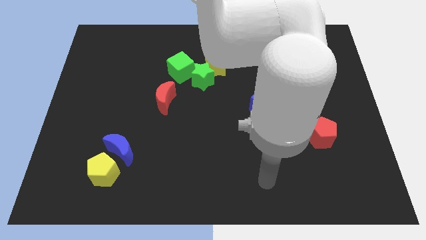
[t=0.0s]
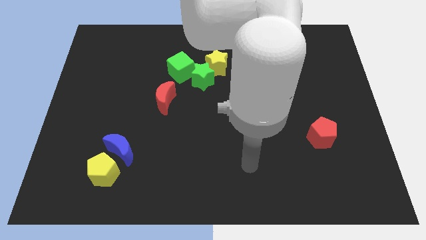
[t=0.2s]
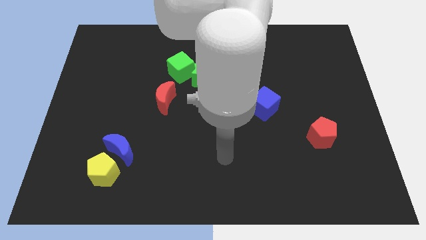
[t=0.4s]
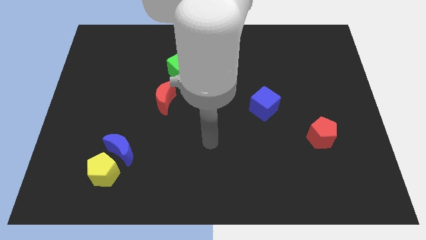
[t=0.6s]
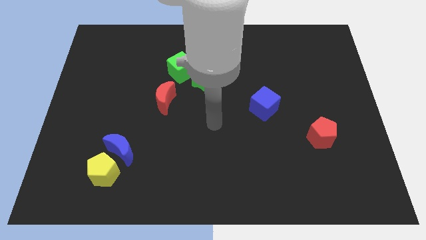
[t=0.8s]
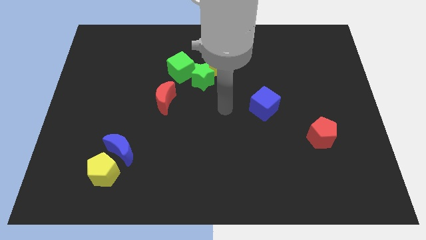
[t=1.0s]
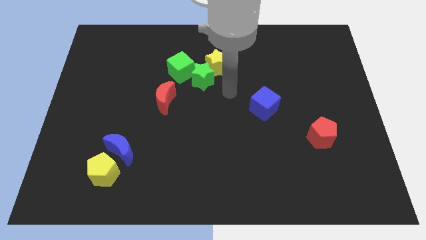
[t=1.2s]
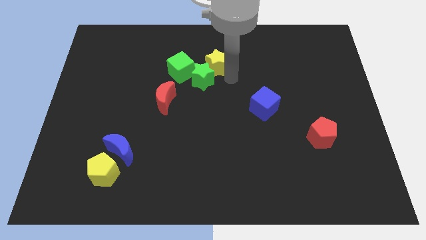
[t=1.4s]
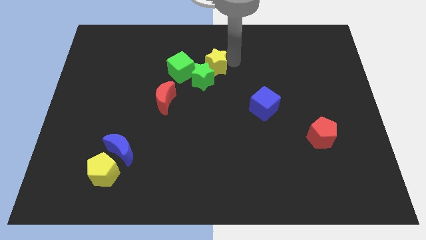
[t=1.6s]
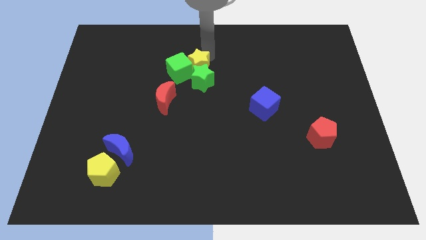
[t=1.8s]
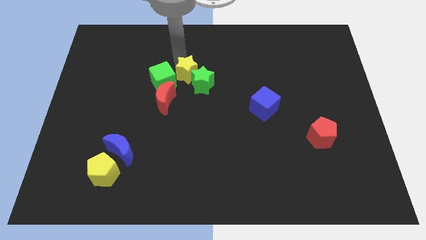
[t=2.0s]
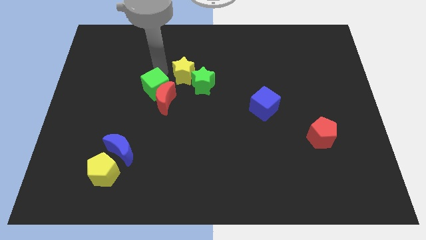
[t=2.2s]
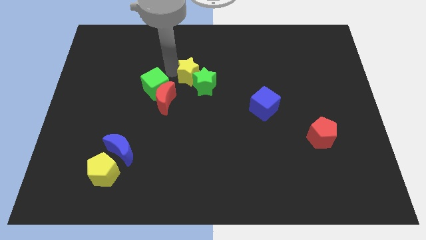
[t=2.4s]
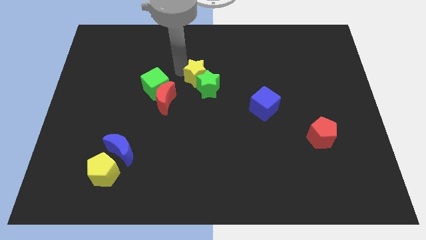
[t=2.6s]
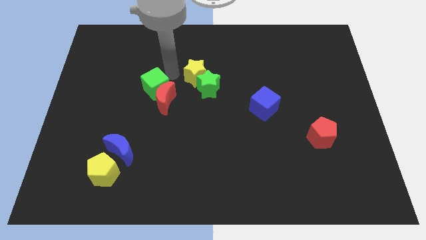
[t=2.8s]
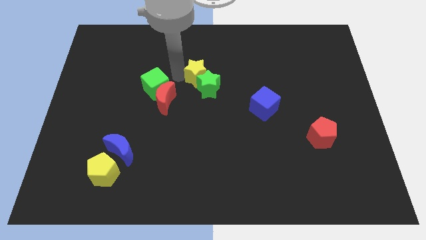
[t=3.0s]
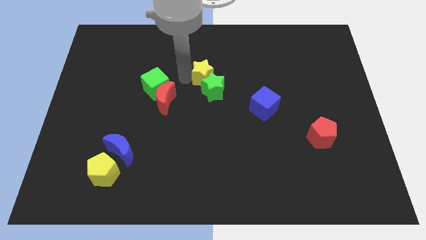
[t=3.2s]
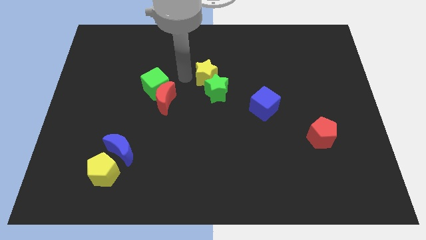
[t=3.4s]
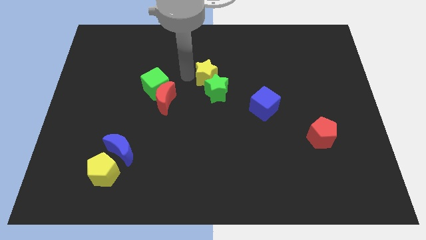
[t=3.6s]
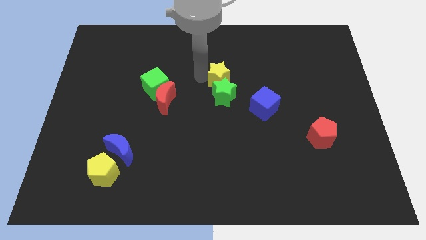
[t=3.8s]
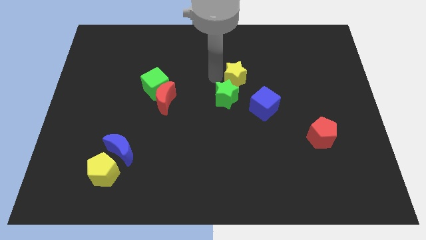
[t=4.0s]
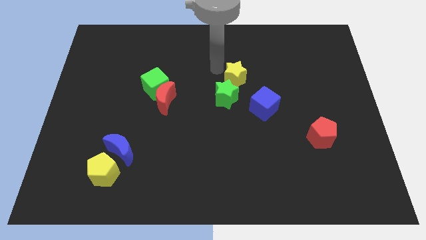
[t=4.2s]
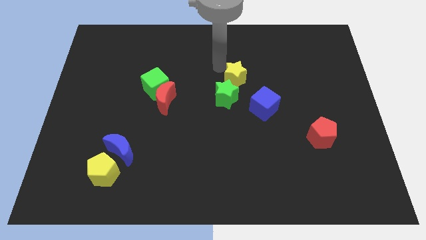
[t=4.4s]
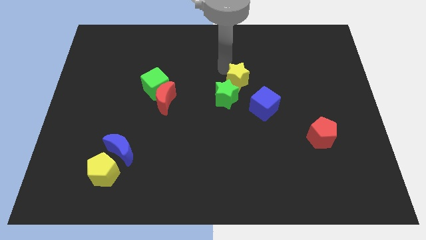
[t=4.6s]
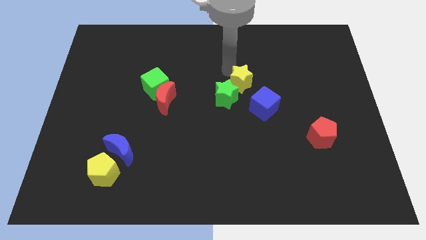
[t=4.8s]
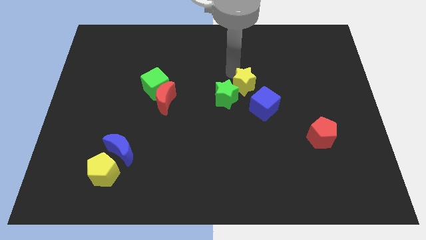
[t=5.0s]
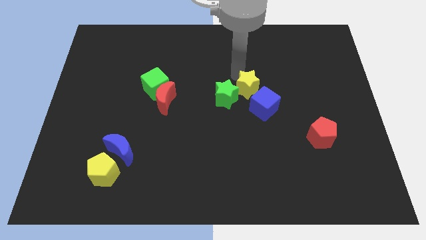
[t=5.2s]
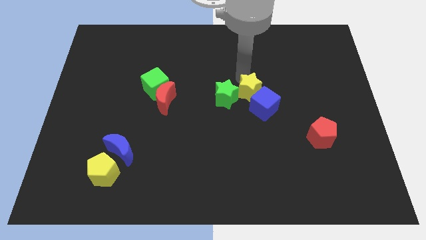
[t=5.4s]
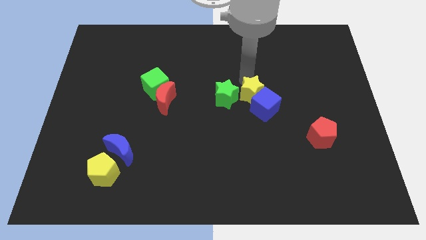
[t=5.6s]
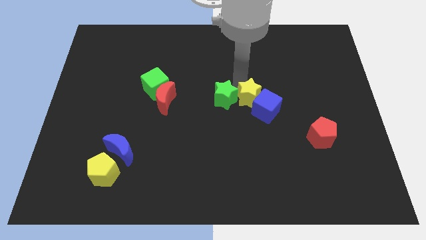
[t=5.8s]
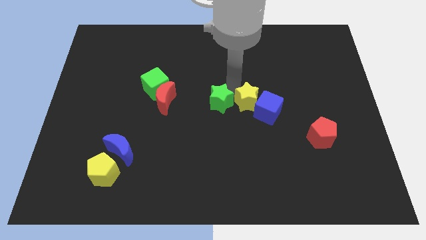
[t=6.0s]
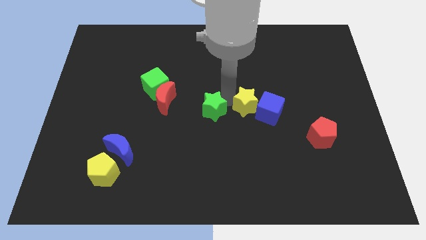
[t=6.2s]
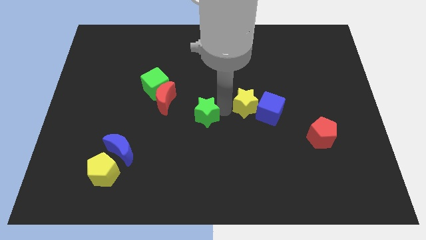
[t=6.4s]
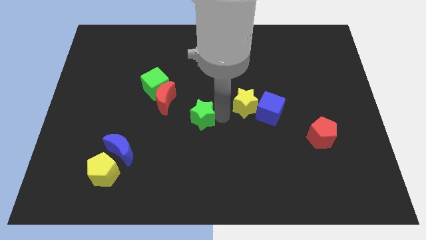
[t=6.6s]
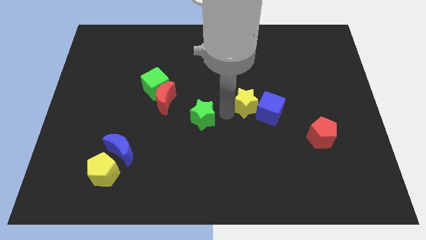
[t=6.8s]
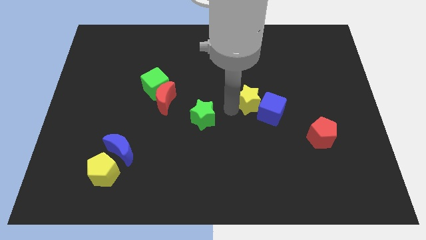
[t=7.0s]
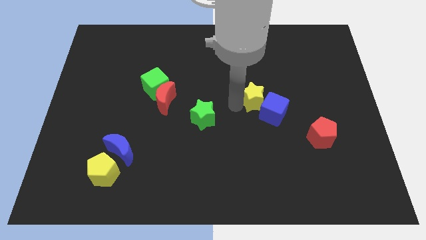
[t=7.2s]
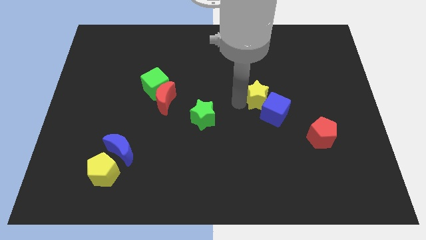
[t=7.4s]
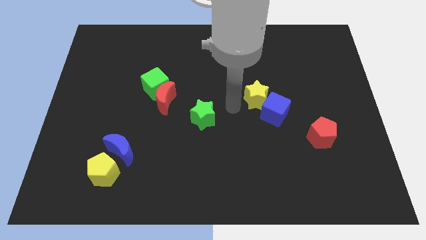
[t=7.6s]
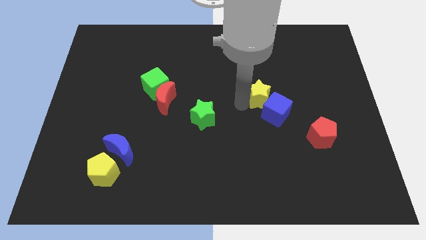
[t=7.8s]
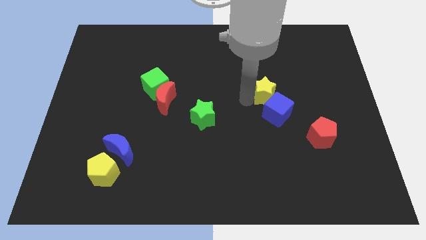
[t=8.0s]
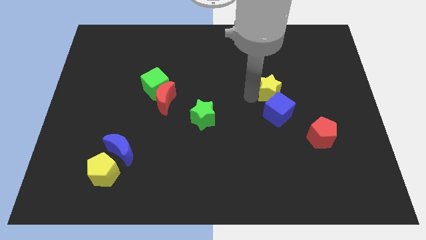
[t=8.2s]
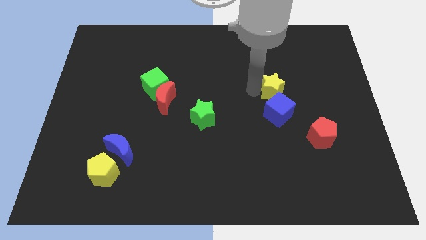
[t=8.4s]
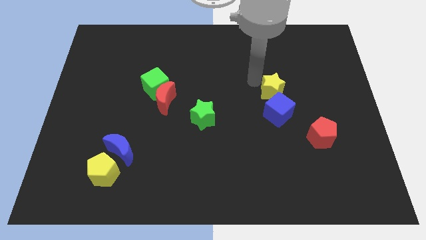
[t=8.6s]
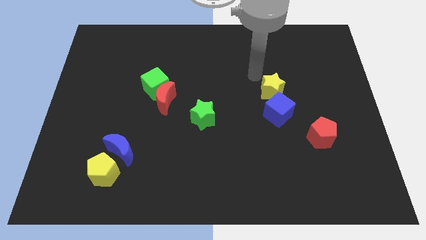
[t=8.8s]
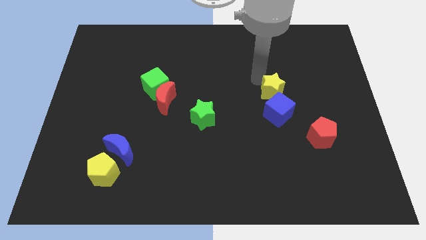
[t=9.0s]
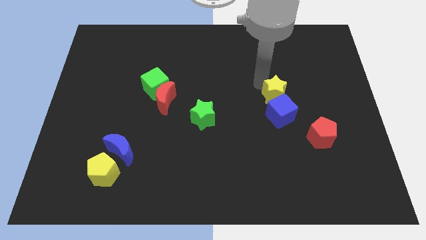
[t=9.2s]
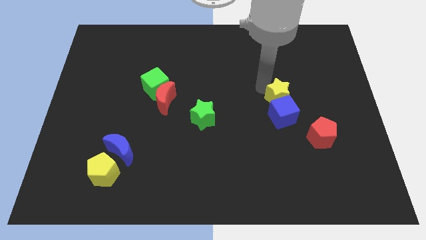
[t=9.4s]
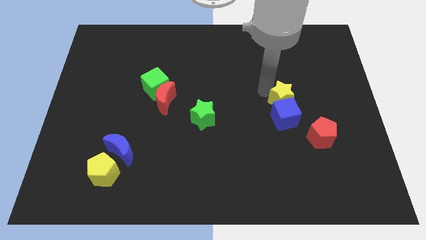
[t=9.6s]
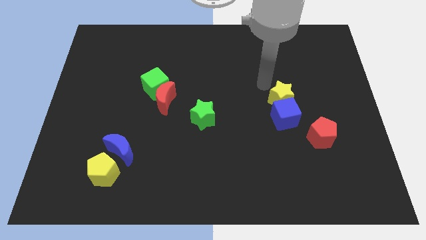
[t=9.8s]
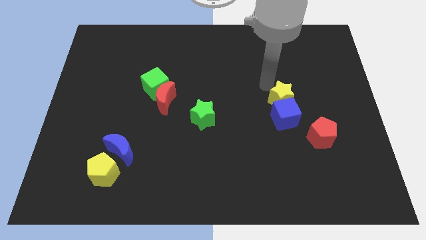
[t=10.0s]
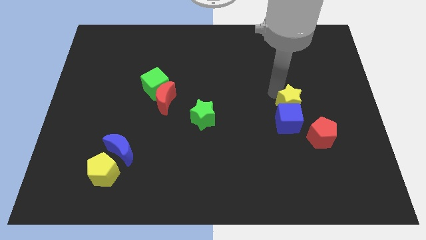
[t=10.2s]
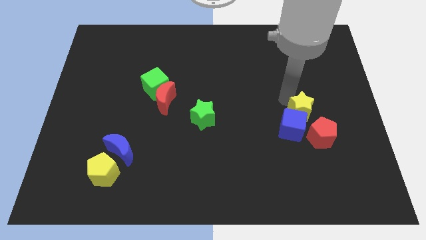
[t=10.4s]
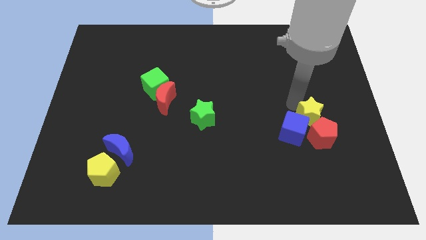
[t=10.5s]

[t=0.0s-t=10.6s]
push the yellow star next to the red pentagon

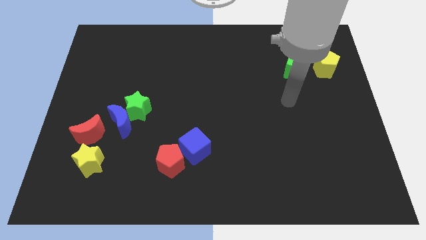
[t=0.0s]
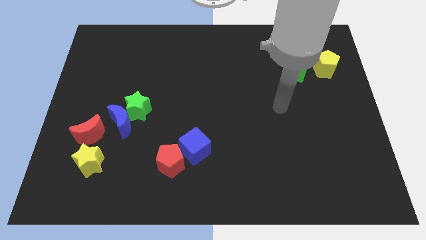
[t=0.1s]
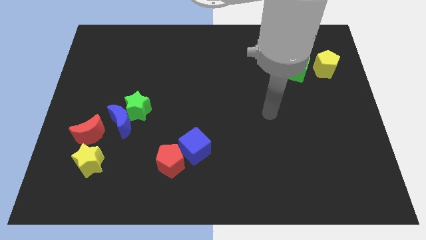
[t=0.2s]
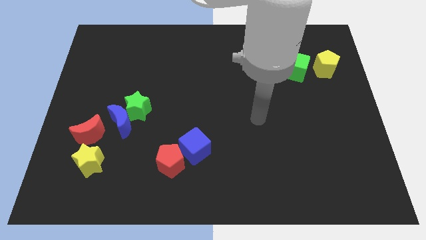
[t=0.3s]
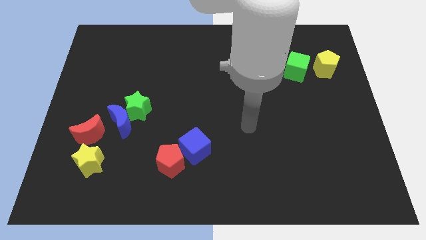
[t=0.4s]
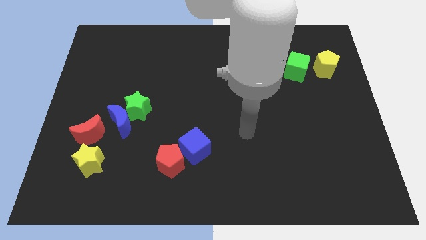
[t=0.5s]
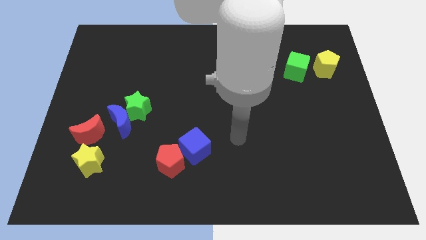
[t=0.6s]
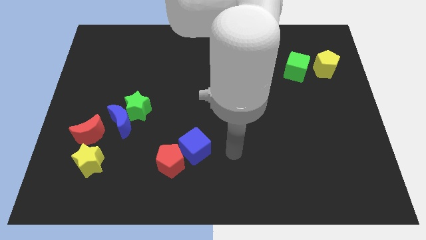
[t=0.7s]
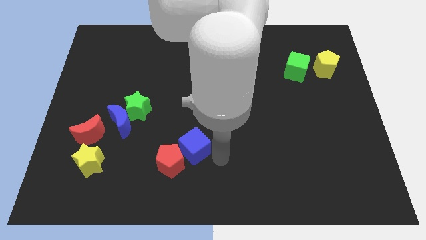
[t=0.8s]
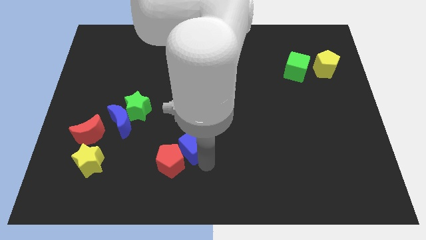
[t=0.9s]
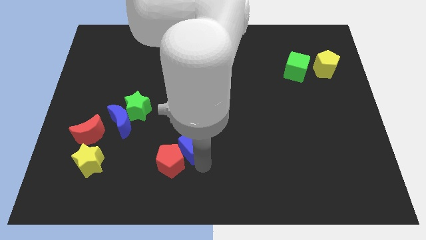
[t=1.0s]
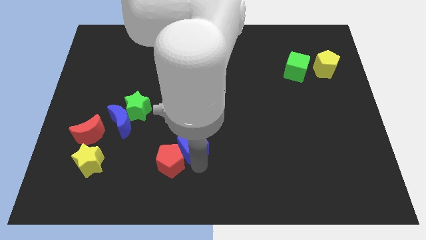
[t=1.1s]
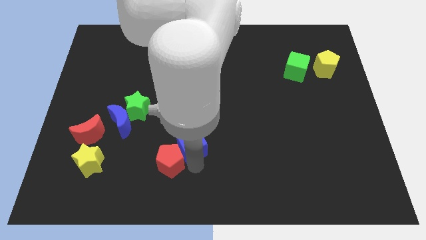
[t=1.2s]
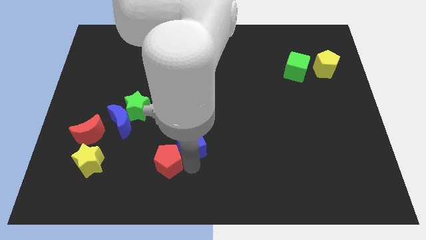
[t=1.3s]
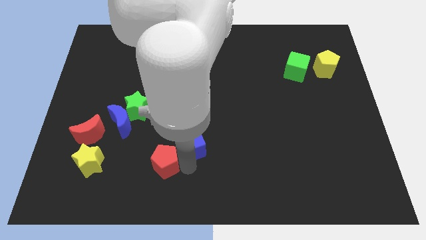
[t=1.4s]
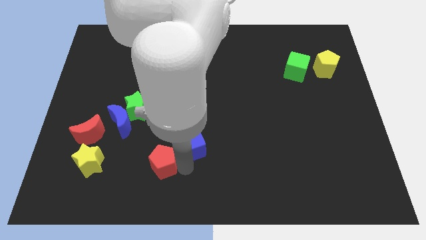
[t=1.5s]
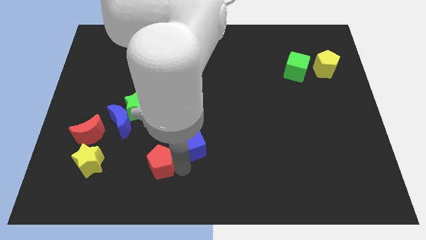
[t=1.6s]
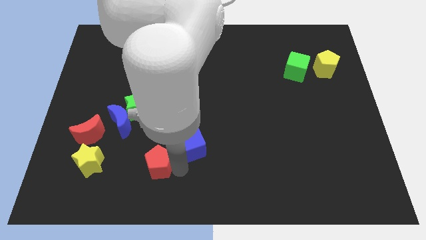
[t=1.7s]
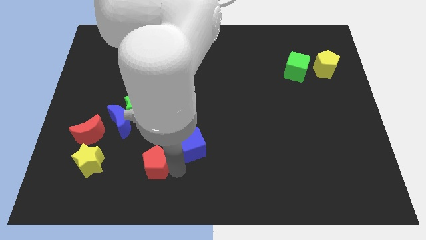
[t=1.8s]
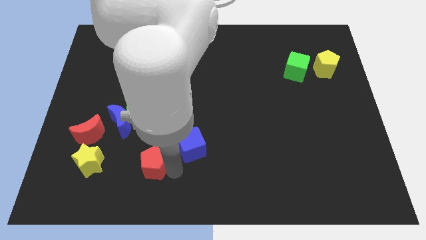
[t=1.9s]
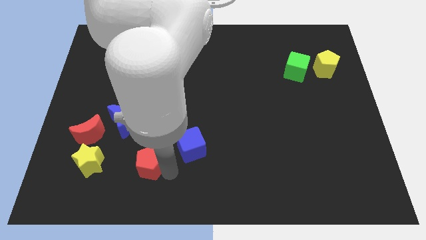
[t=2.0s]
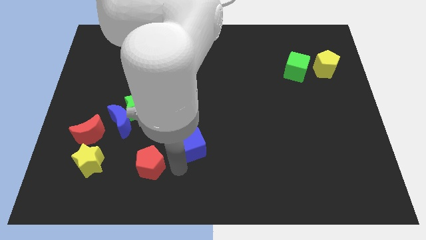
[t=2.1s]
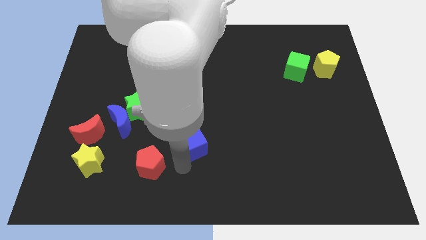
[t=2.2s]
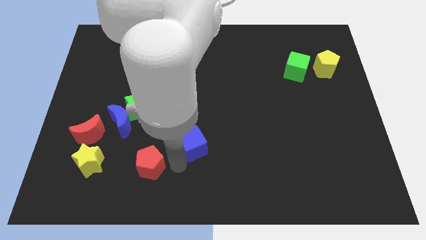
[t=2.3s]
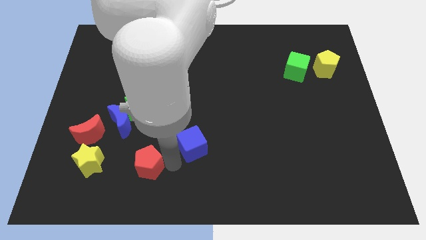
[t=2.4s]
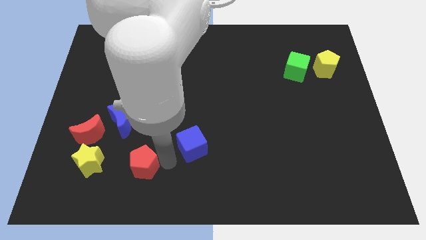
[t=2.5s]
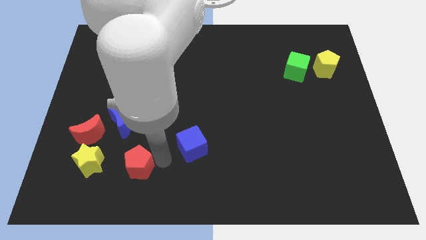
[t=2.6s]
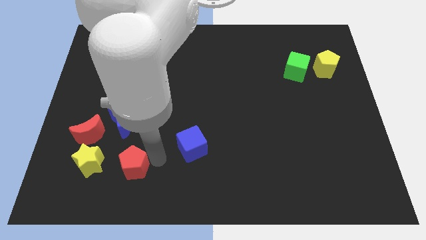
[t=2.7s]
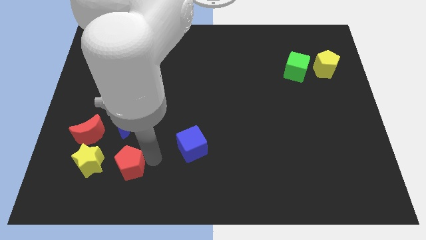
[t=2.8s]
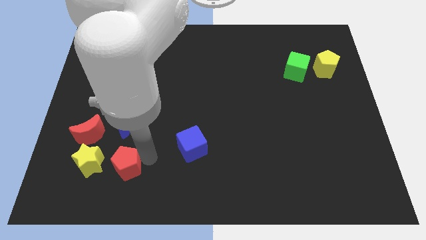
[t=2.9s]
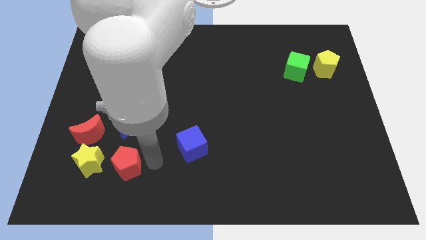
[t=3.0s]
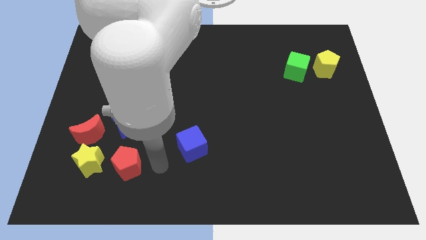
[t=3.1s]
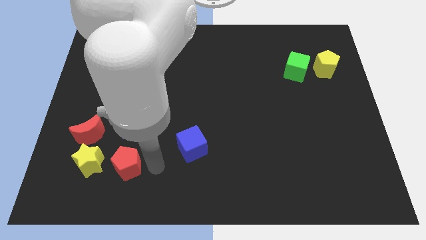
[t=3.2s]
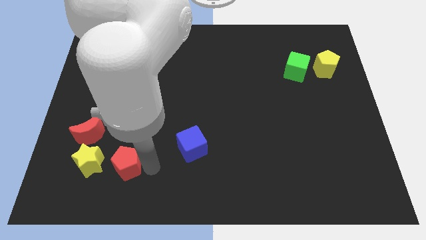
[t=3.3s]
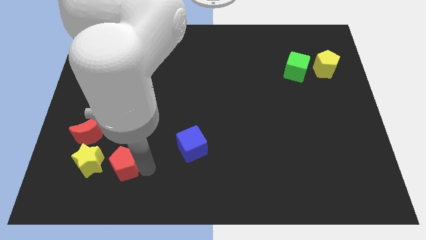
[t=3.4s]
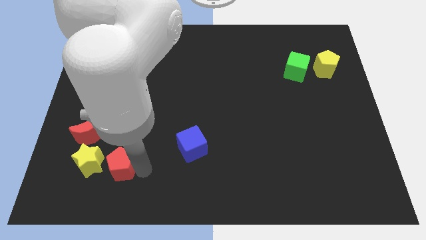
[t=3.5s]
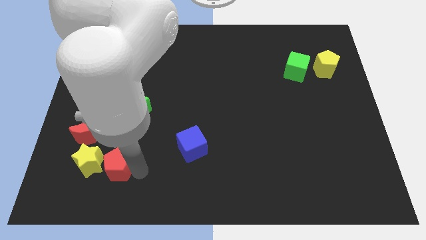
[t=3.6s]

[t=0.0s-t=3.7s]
slide the red pentagon to the yellow star
